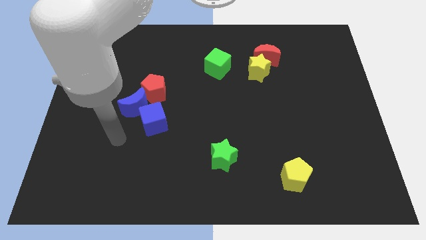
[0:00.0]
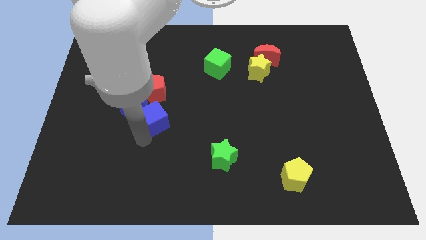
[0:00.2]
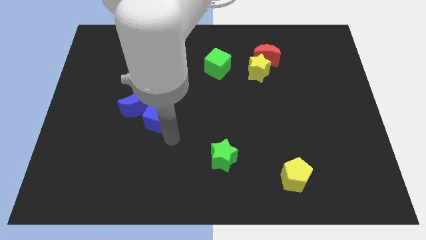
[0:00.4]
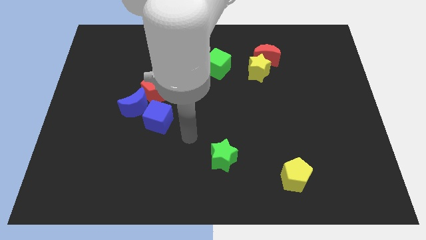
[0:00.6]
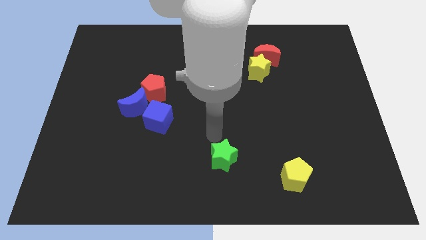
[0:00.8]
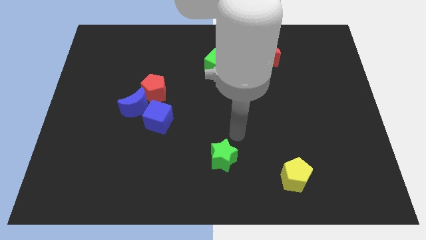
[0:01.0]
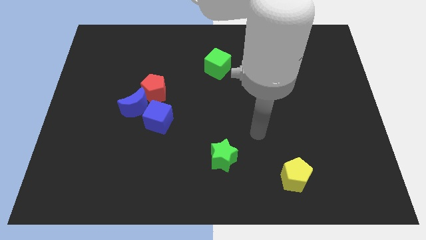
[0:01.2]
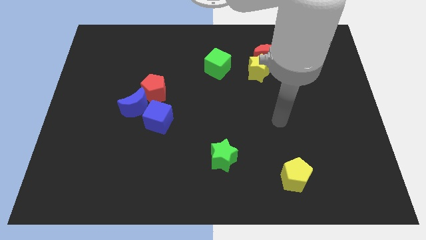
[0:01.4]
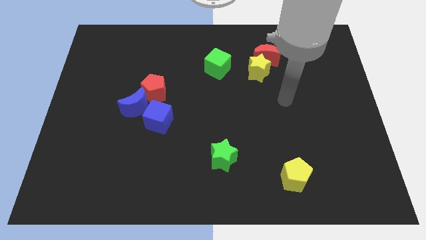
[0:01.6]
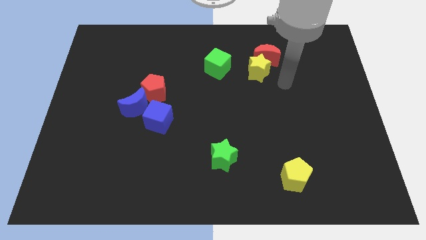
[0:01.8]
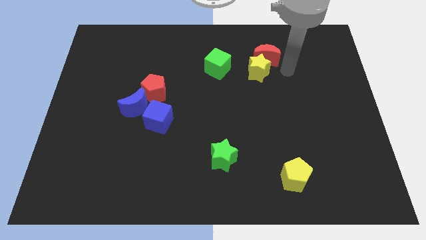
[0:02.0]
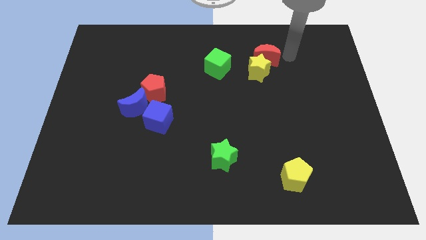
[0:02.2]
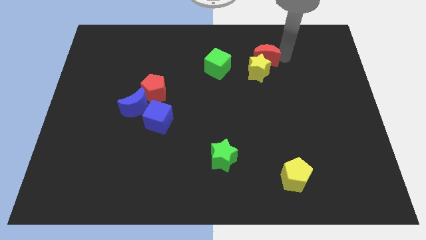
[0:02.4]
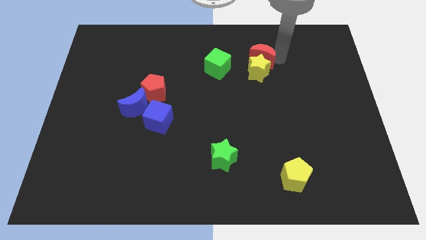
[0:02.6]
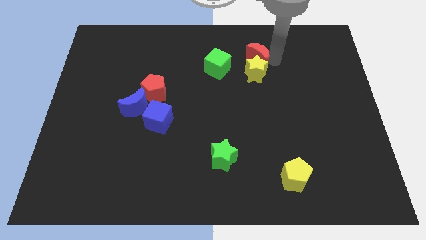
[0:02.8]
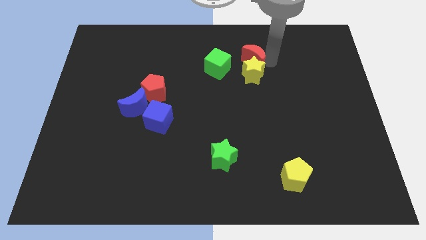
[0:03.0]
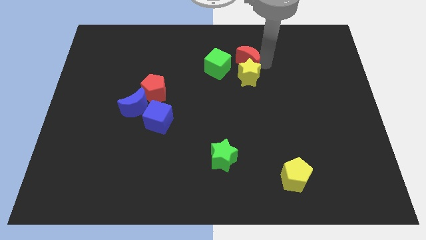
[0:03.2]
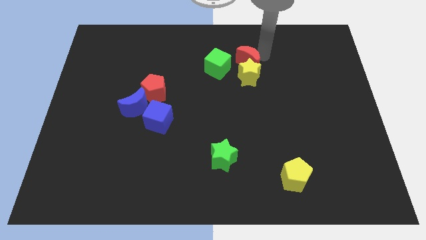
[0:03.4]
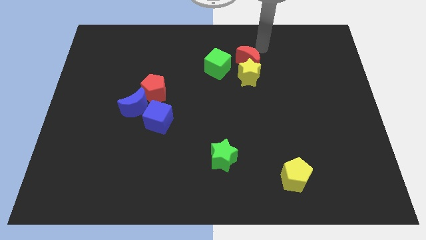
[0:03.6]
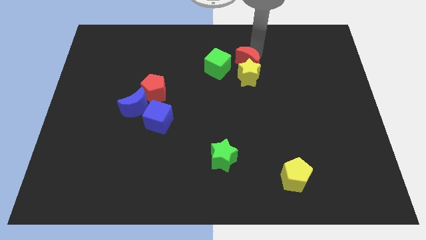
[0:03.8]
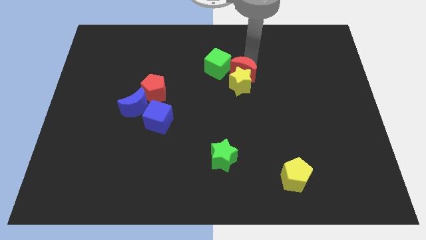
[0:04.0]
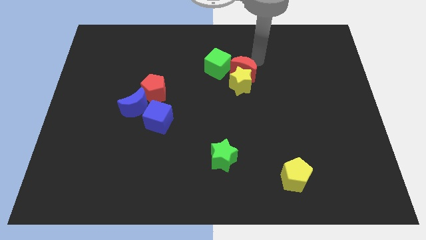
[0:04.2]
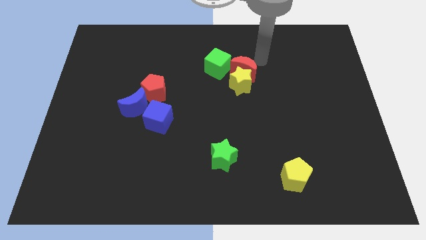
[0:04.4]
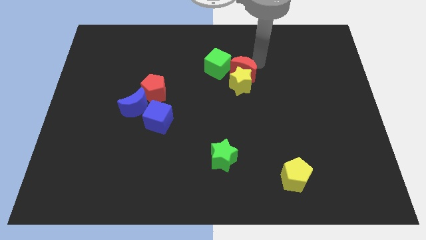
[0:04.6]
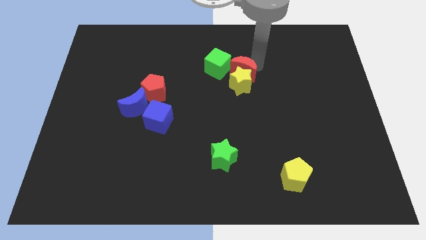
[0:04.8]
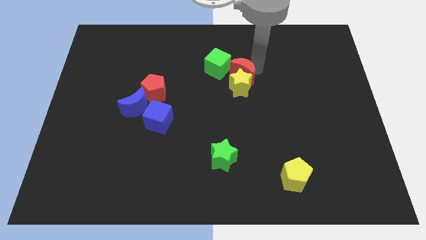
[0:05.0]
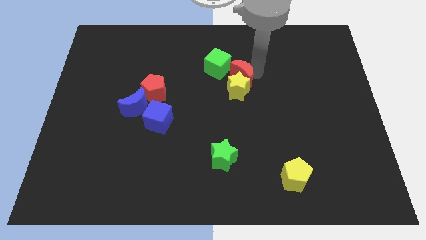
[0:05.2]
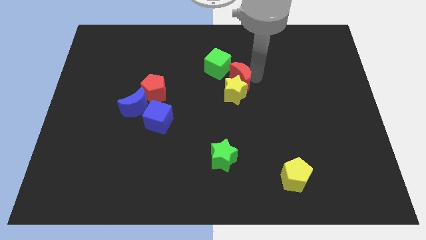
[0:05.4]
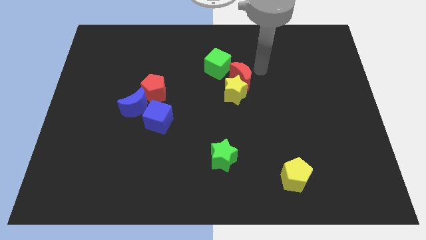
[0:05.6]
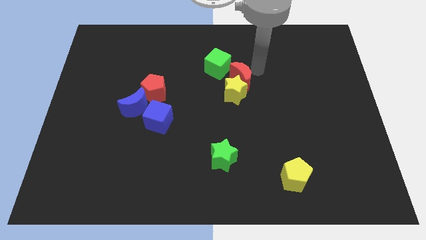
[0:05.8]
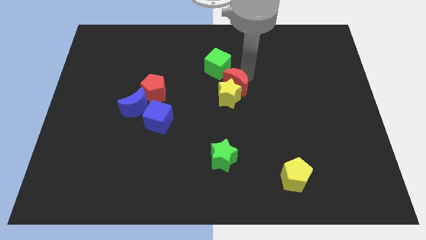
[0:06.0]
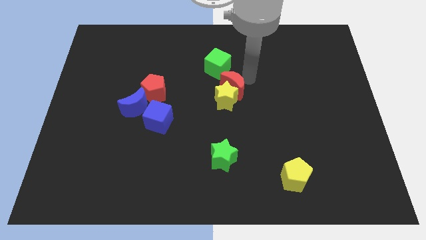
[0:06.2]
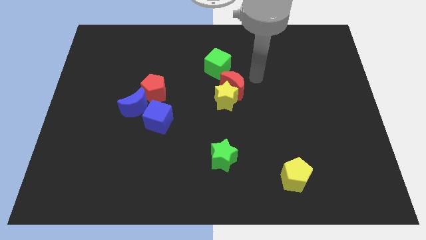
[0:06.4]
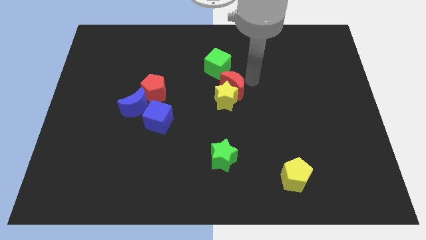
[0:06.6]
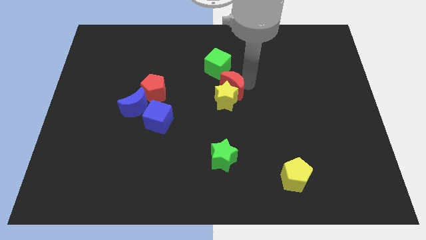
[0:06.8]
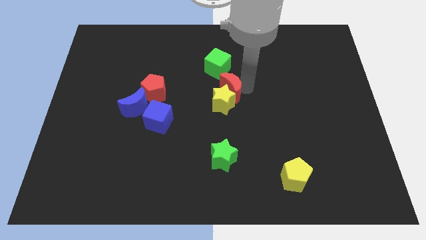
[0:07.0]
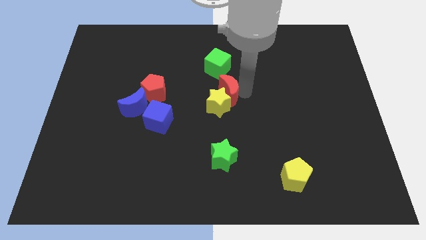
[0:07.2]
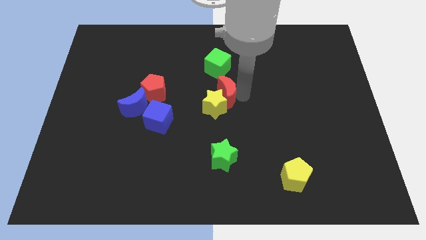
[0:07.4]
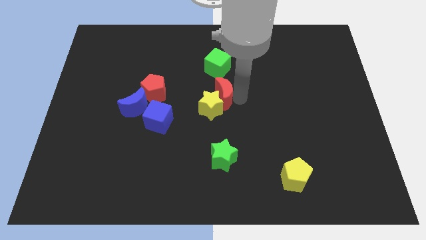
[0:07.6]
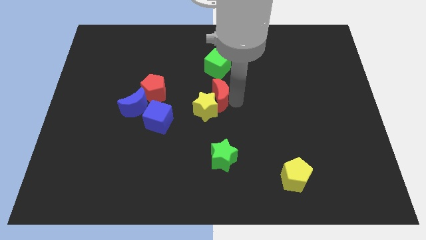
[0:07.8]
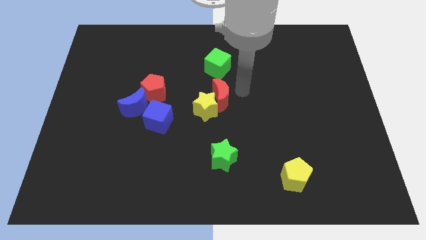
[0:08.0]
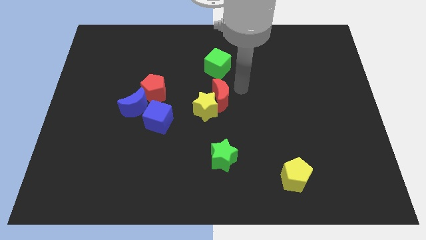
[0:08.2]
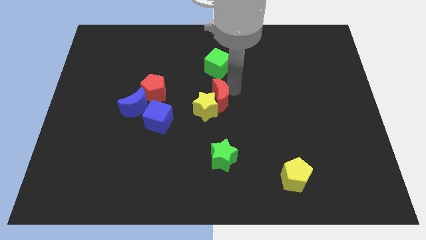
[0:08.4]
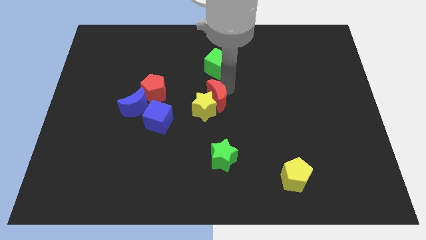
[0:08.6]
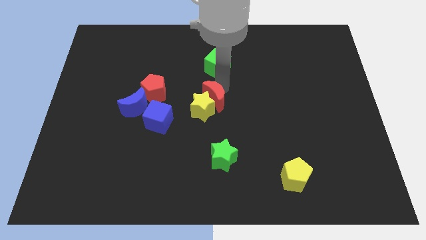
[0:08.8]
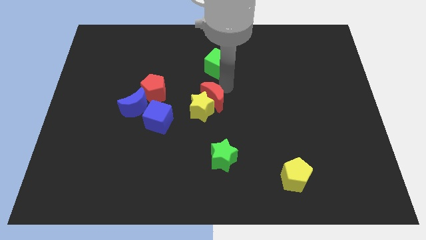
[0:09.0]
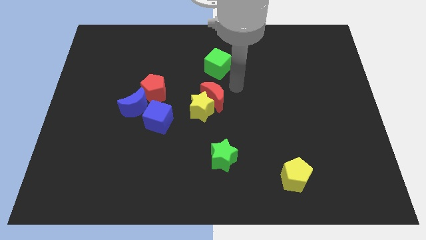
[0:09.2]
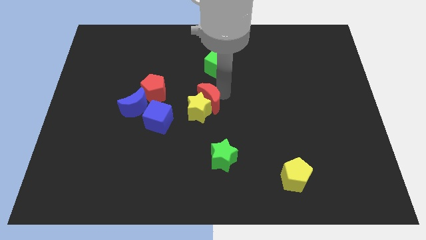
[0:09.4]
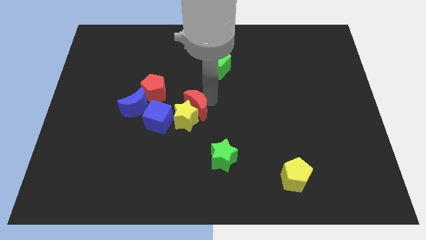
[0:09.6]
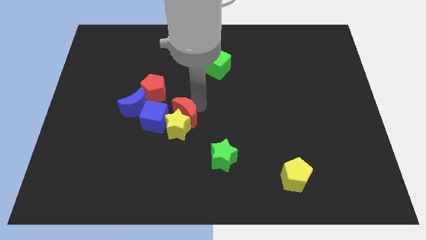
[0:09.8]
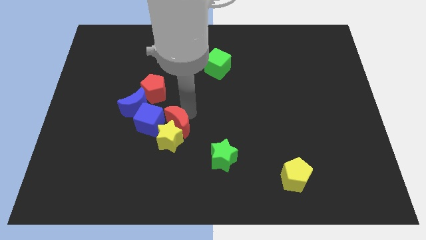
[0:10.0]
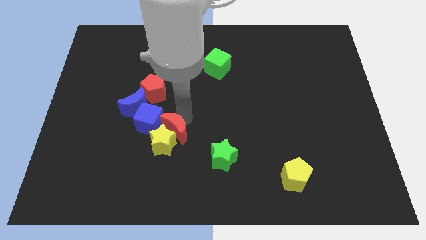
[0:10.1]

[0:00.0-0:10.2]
put the red moon to the bottom right of the blue moon

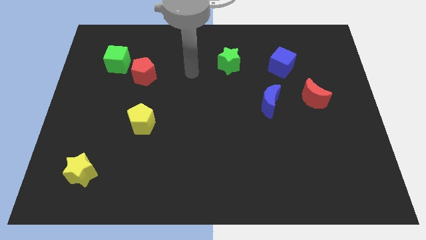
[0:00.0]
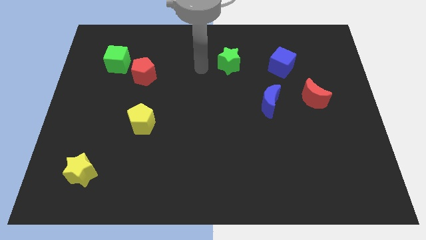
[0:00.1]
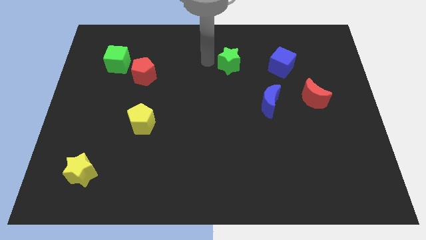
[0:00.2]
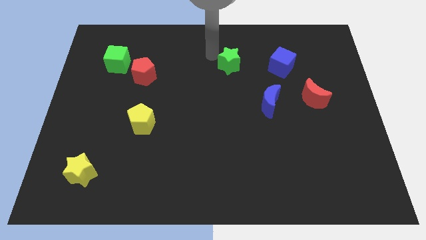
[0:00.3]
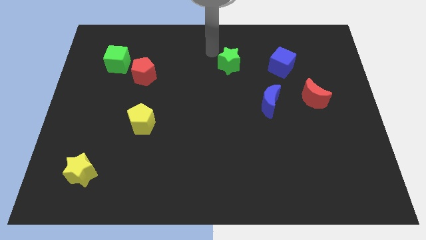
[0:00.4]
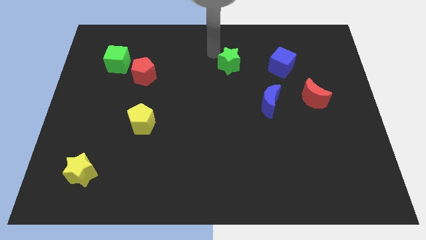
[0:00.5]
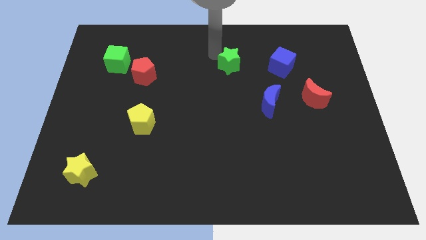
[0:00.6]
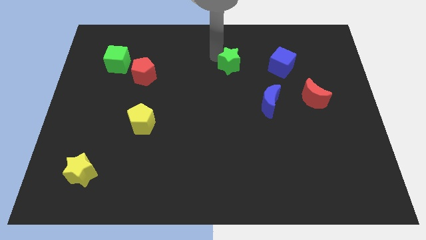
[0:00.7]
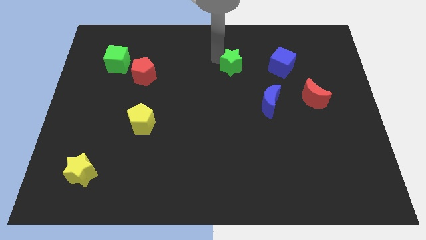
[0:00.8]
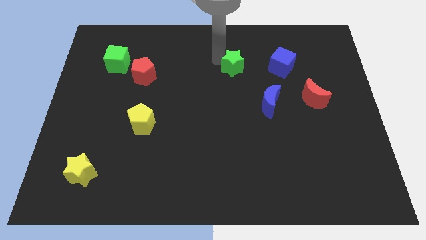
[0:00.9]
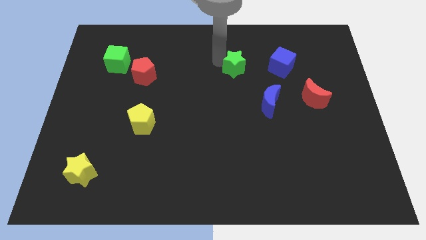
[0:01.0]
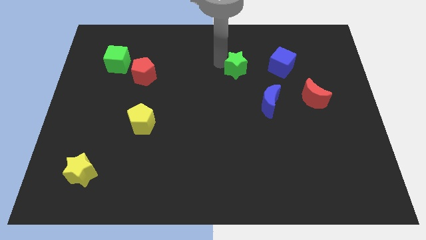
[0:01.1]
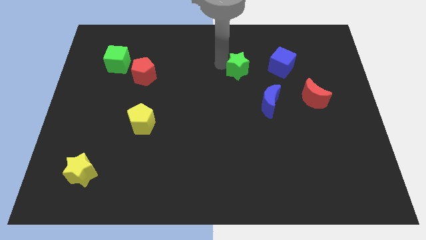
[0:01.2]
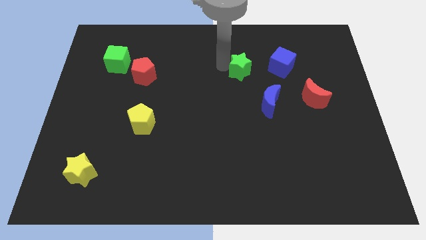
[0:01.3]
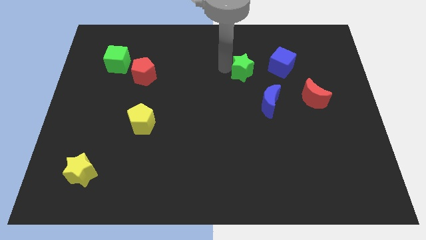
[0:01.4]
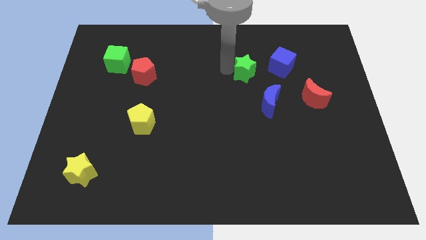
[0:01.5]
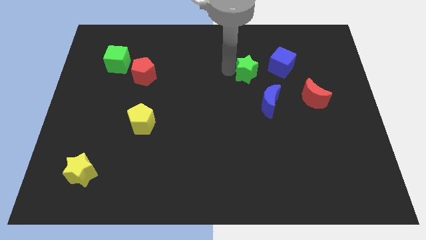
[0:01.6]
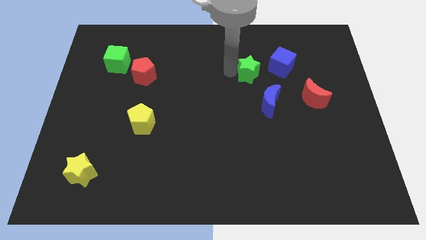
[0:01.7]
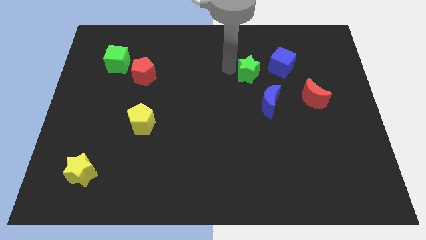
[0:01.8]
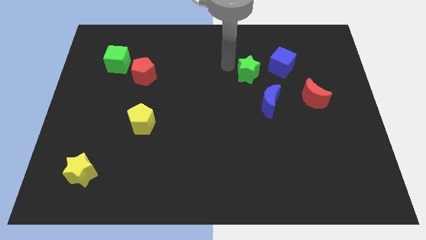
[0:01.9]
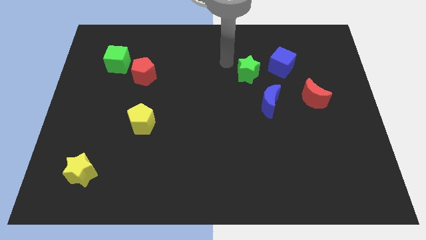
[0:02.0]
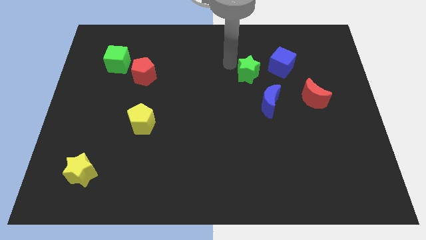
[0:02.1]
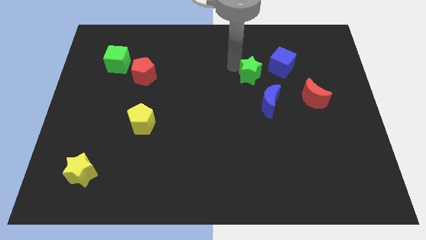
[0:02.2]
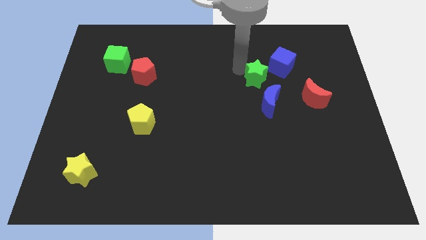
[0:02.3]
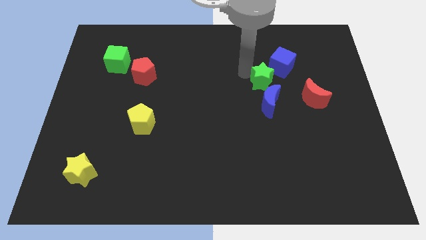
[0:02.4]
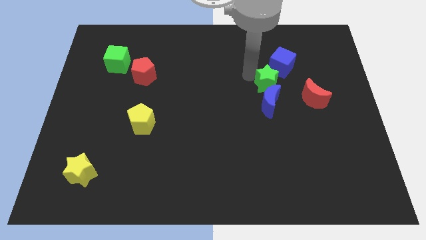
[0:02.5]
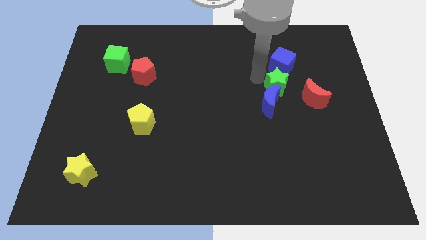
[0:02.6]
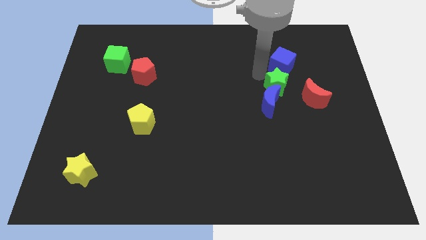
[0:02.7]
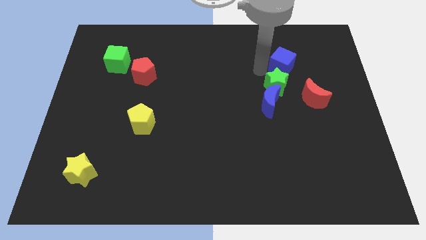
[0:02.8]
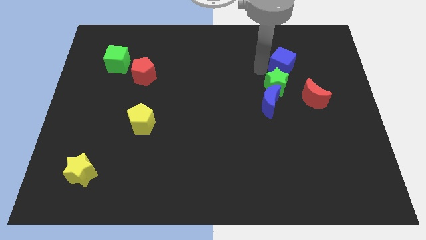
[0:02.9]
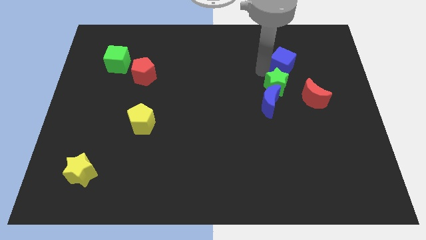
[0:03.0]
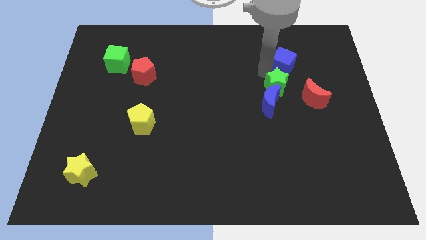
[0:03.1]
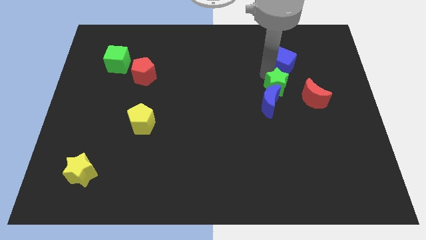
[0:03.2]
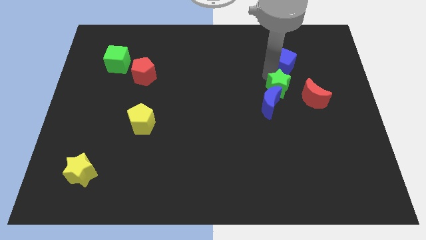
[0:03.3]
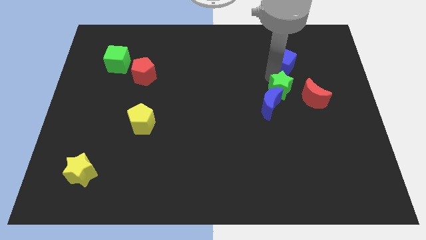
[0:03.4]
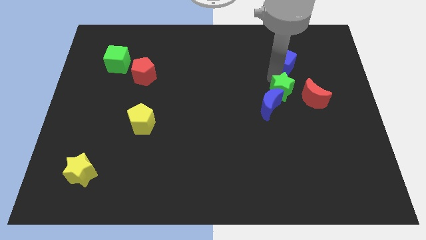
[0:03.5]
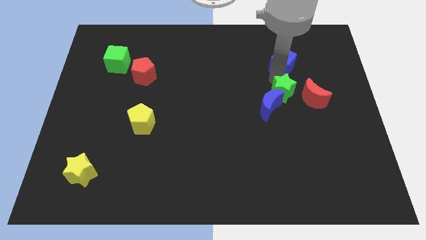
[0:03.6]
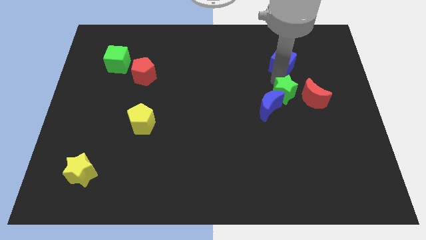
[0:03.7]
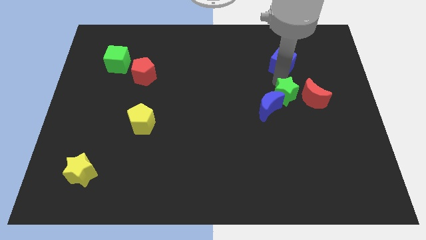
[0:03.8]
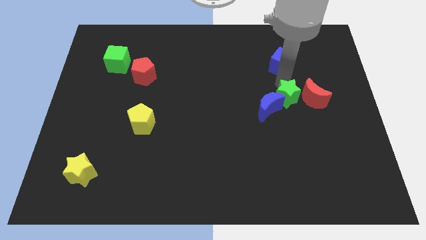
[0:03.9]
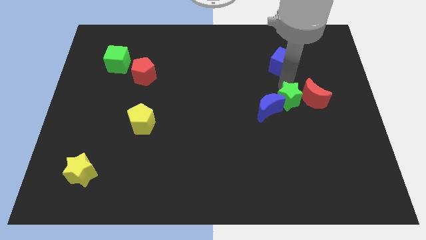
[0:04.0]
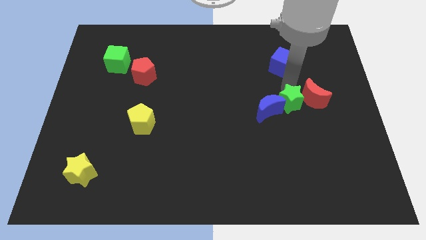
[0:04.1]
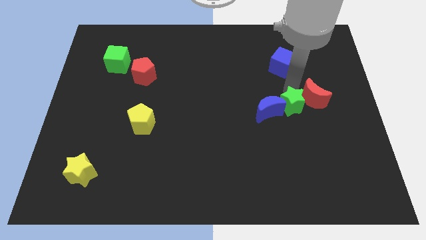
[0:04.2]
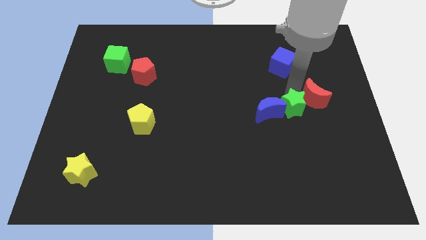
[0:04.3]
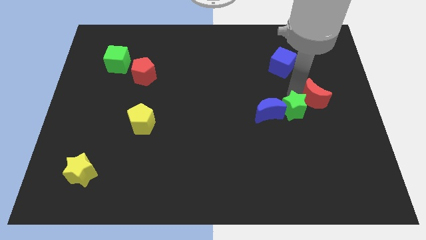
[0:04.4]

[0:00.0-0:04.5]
move the green star to the bottom right side of the blue moon
